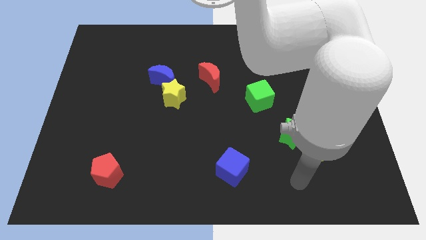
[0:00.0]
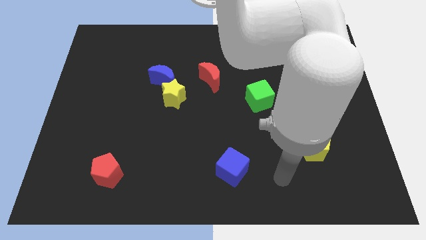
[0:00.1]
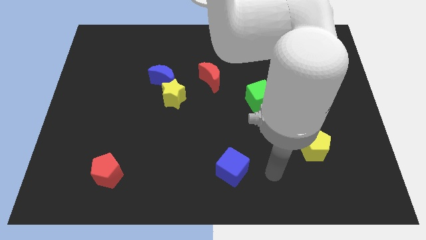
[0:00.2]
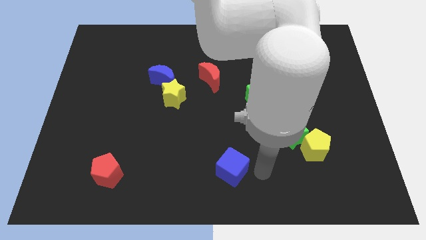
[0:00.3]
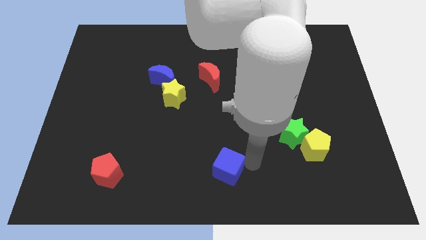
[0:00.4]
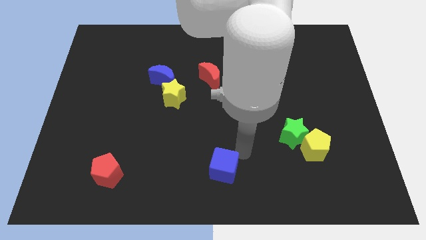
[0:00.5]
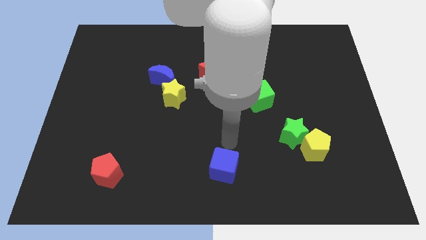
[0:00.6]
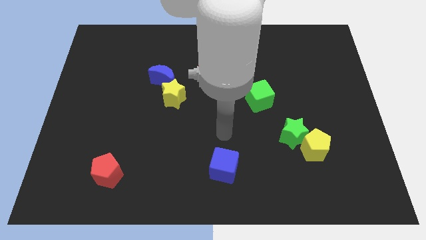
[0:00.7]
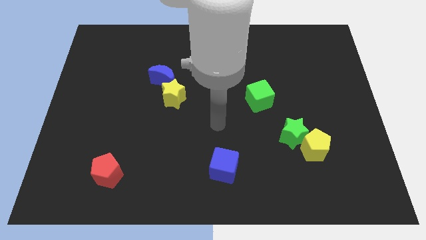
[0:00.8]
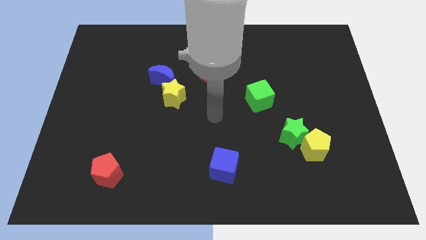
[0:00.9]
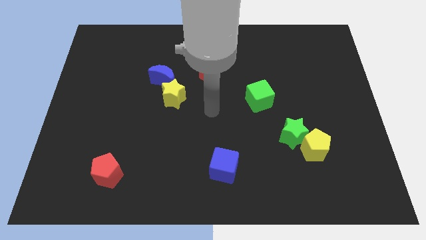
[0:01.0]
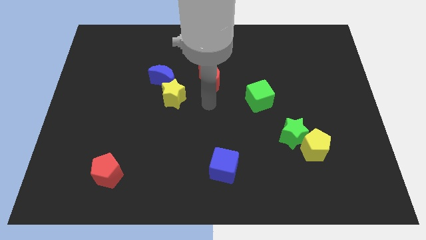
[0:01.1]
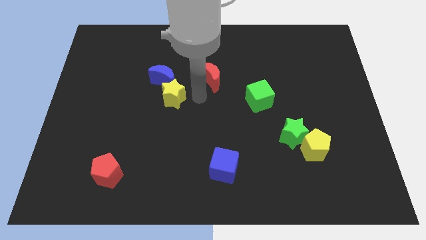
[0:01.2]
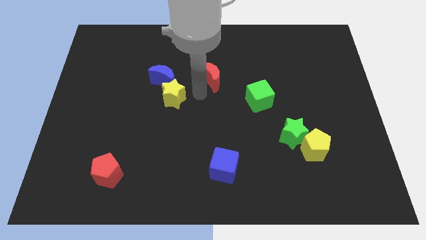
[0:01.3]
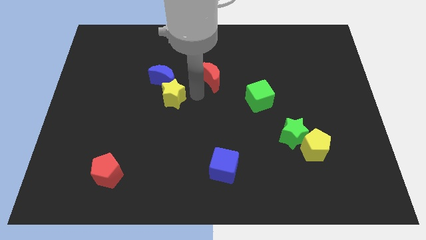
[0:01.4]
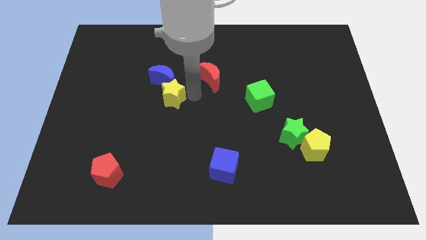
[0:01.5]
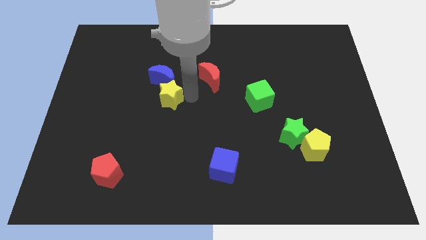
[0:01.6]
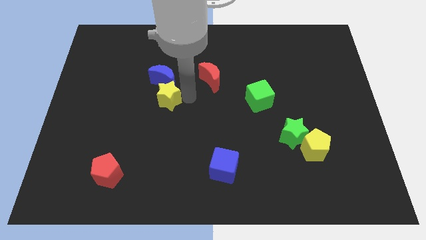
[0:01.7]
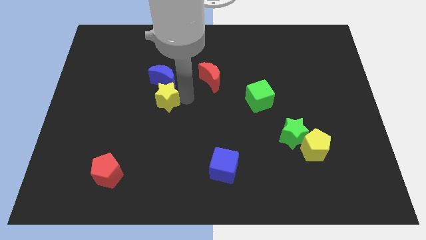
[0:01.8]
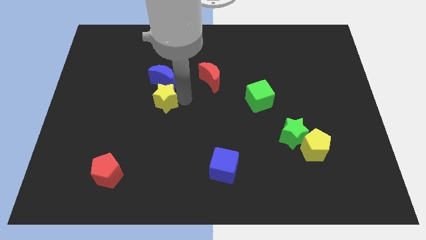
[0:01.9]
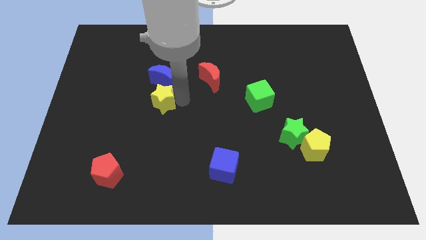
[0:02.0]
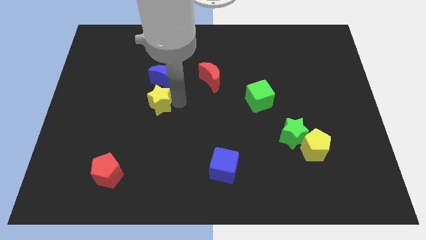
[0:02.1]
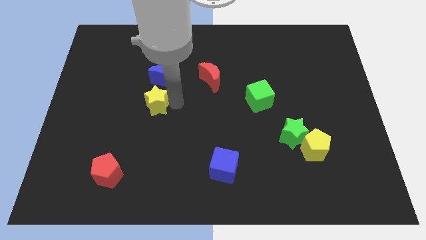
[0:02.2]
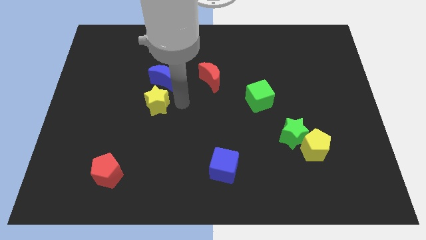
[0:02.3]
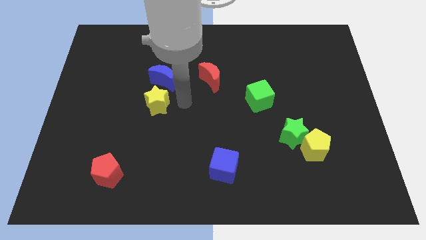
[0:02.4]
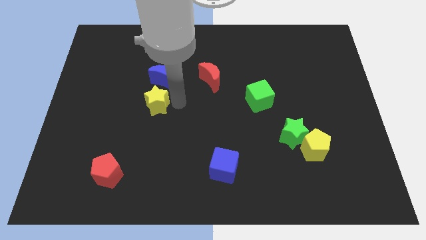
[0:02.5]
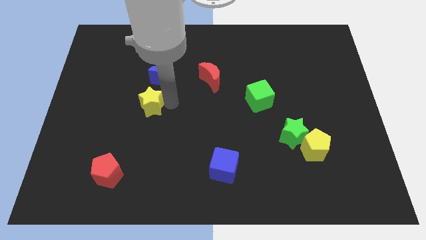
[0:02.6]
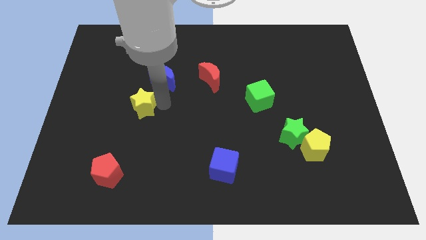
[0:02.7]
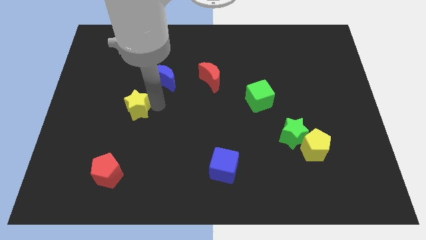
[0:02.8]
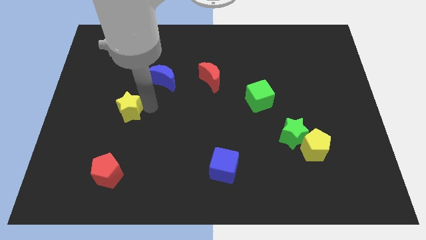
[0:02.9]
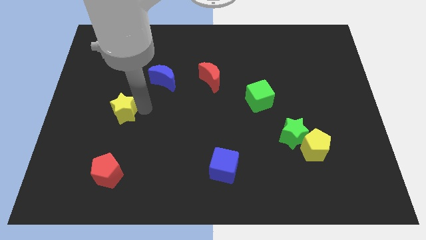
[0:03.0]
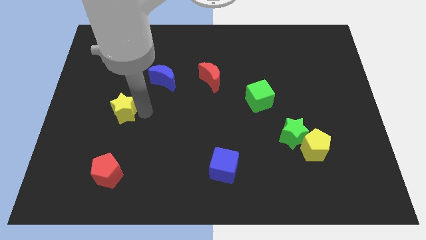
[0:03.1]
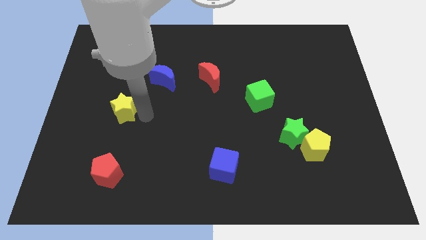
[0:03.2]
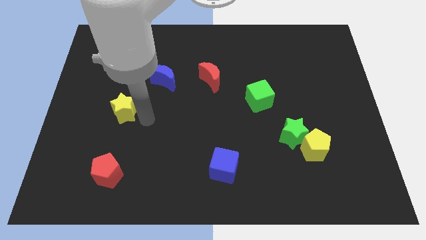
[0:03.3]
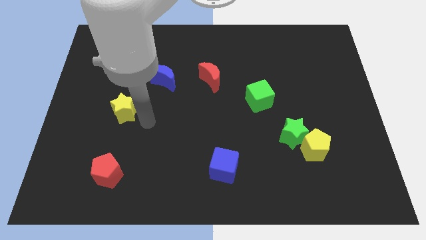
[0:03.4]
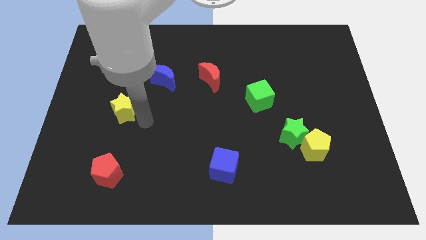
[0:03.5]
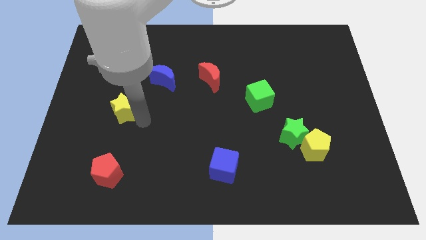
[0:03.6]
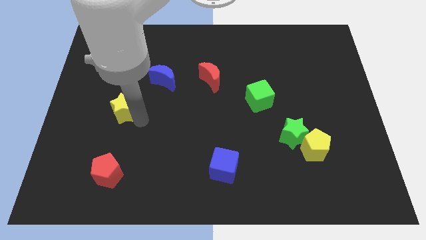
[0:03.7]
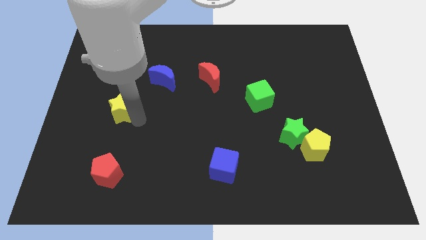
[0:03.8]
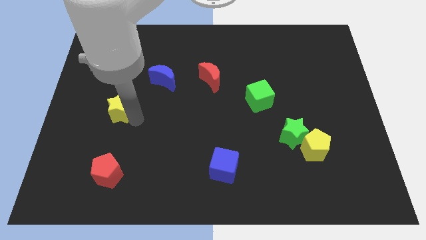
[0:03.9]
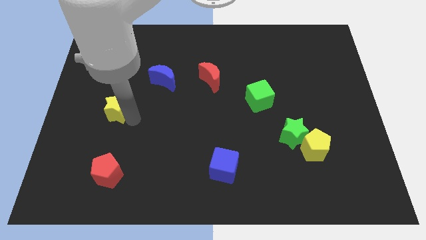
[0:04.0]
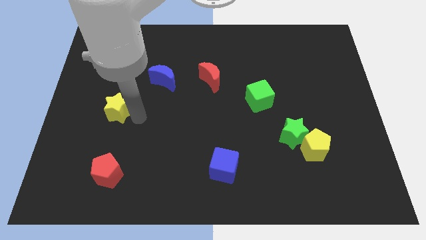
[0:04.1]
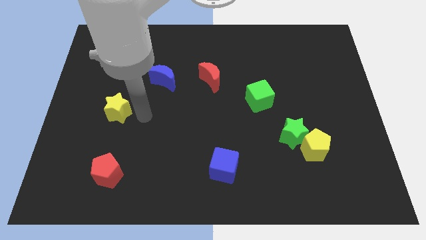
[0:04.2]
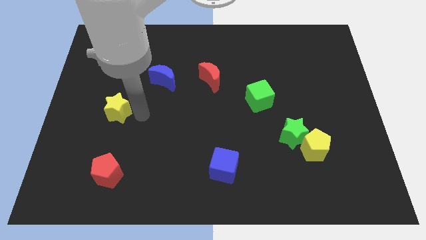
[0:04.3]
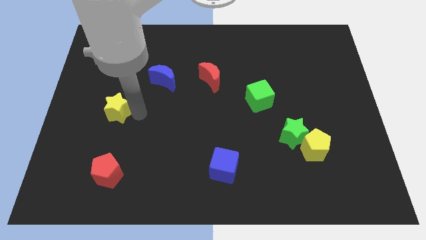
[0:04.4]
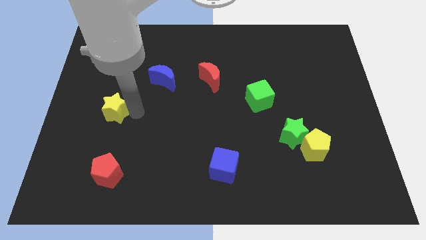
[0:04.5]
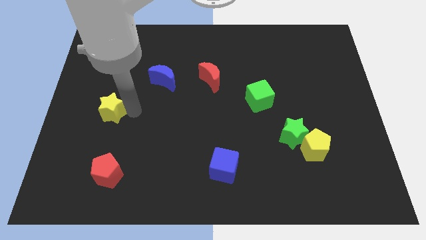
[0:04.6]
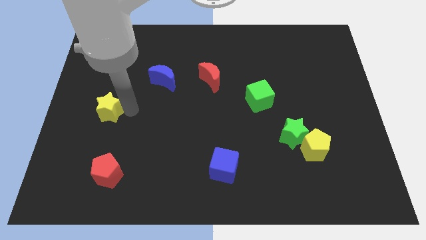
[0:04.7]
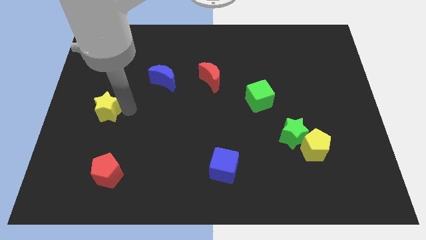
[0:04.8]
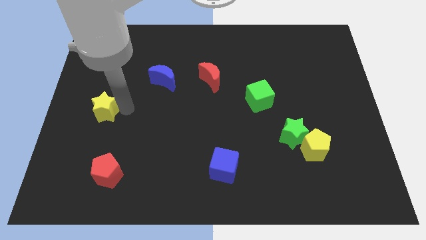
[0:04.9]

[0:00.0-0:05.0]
put the yellow star to the center left
